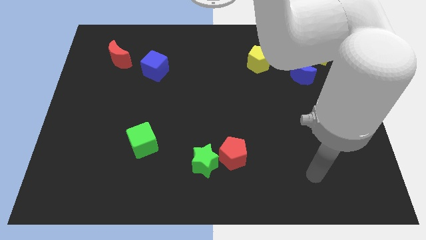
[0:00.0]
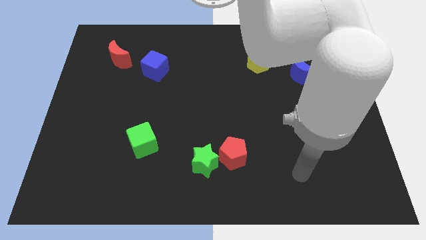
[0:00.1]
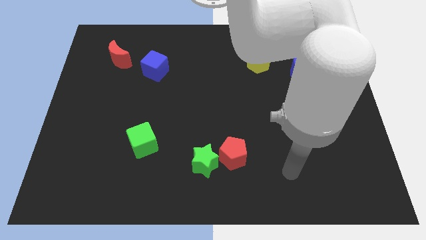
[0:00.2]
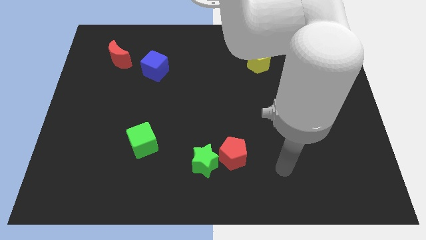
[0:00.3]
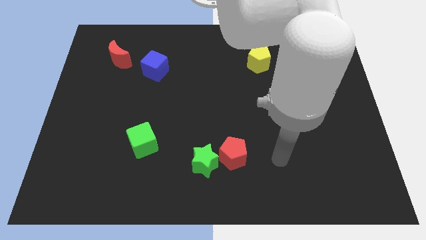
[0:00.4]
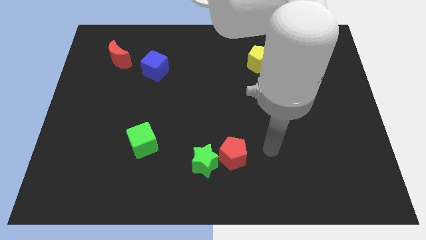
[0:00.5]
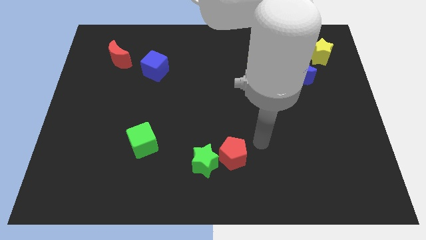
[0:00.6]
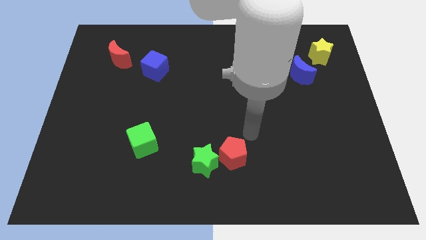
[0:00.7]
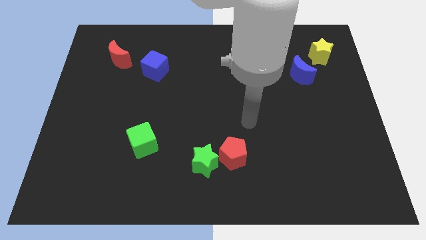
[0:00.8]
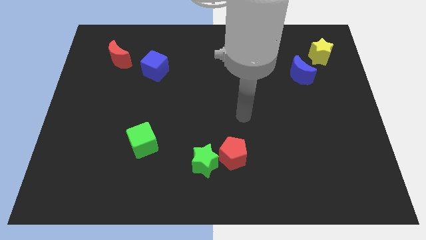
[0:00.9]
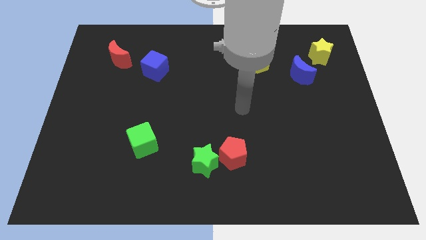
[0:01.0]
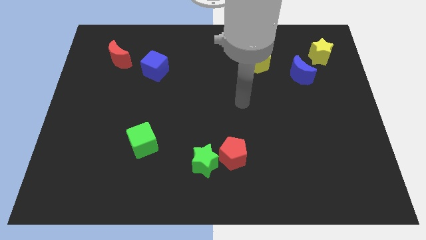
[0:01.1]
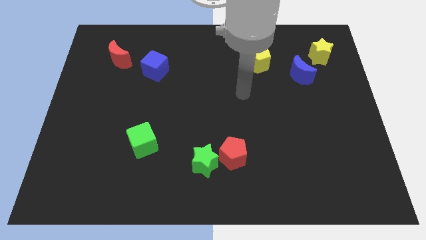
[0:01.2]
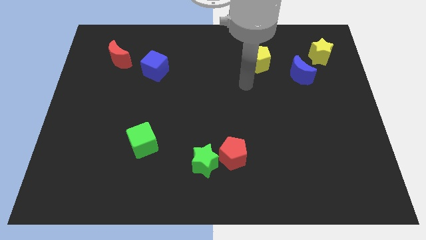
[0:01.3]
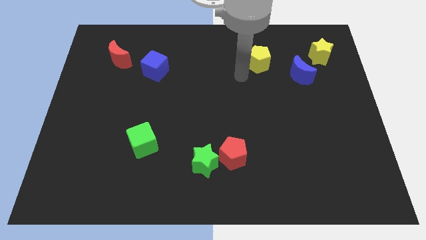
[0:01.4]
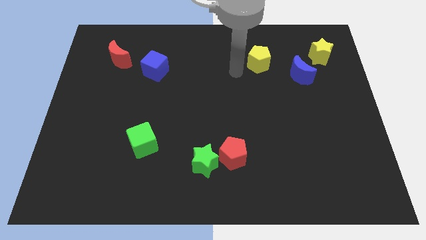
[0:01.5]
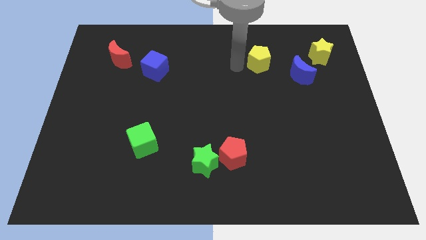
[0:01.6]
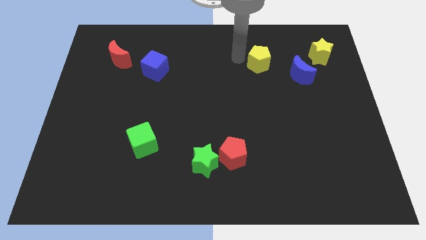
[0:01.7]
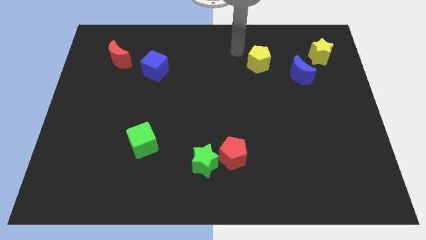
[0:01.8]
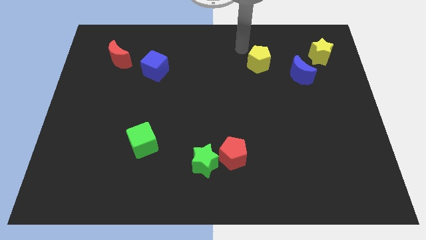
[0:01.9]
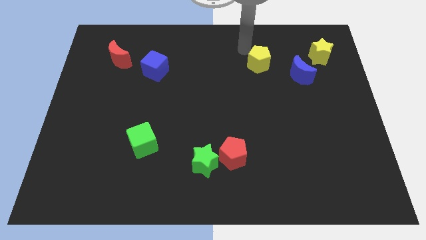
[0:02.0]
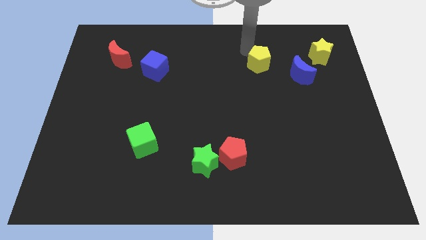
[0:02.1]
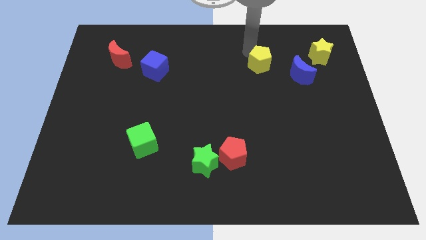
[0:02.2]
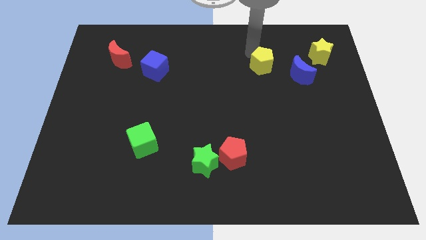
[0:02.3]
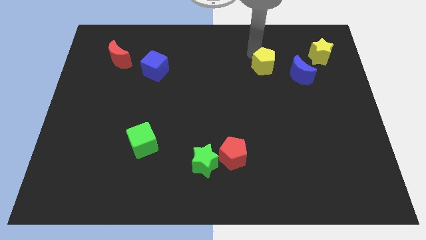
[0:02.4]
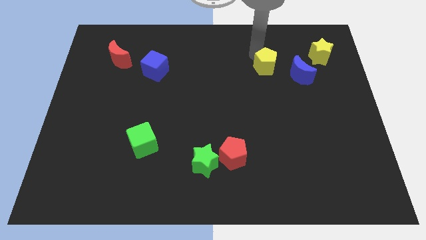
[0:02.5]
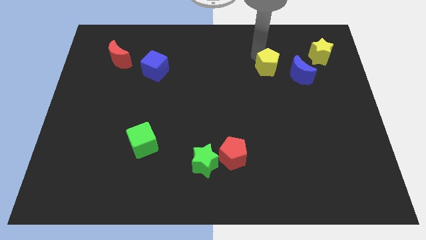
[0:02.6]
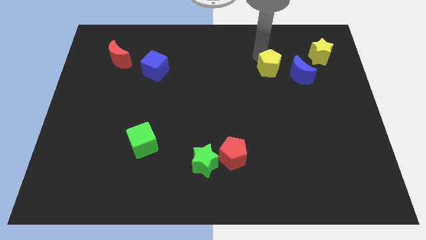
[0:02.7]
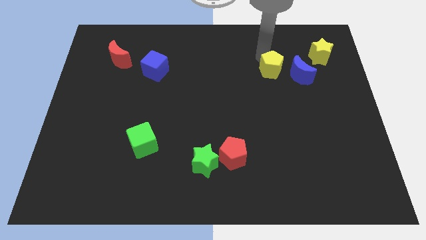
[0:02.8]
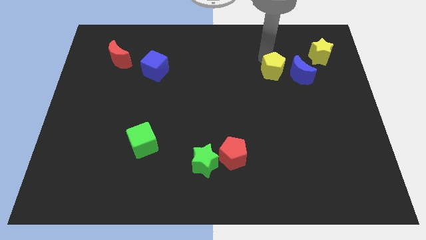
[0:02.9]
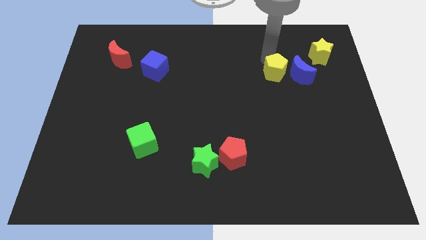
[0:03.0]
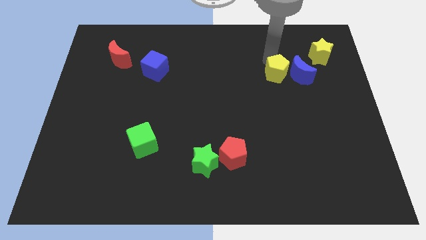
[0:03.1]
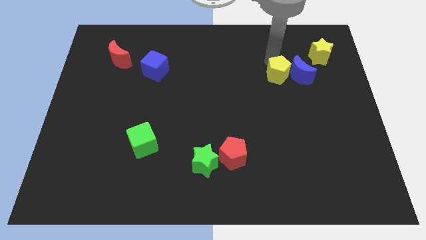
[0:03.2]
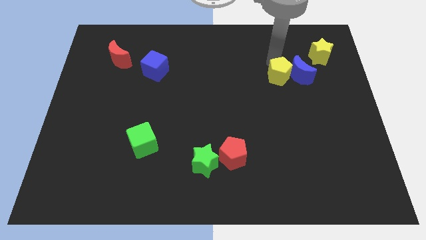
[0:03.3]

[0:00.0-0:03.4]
push the yellow pentagon a little down and then right

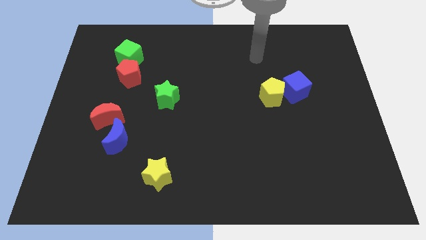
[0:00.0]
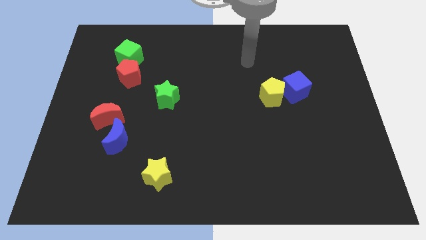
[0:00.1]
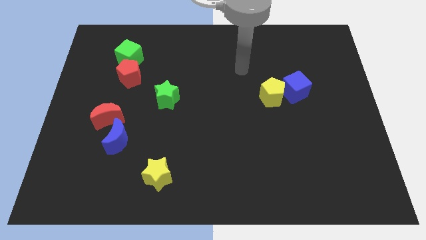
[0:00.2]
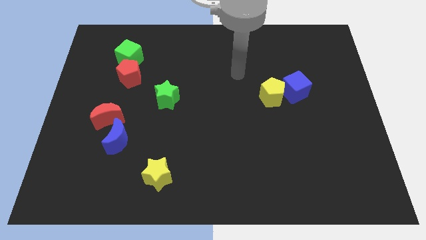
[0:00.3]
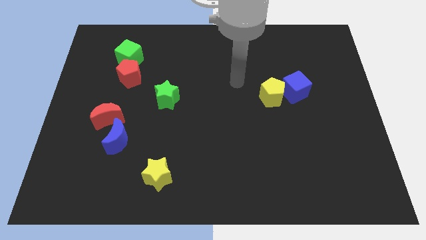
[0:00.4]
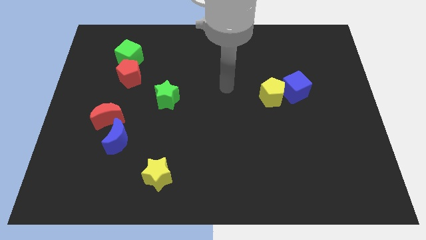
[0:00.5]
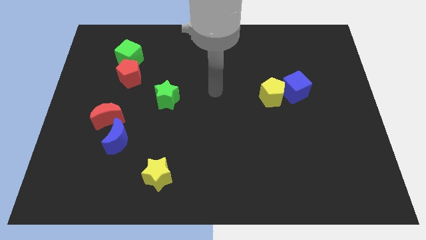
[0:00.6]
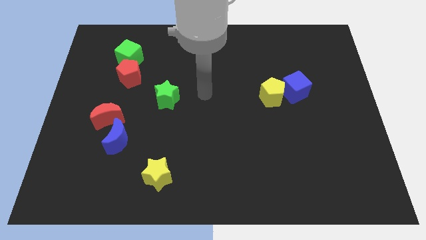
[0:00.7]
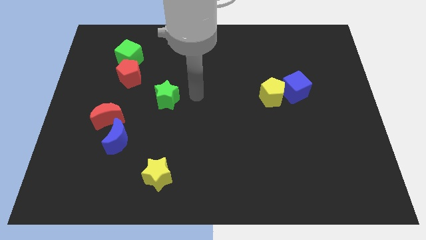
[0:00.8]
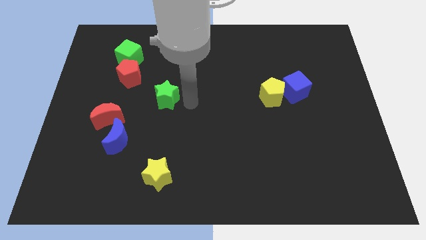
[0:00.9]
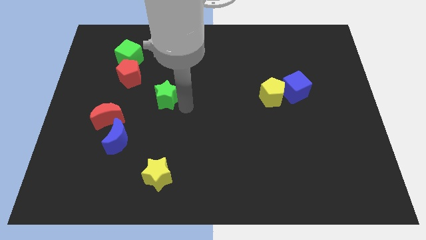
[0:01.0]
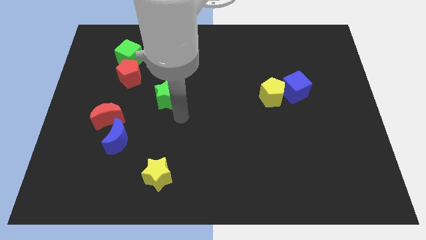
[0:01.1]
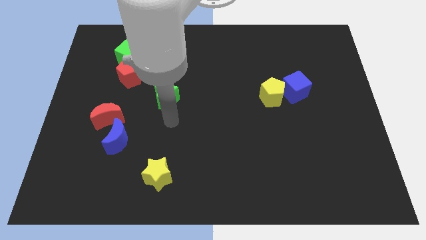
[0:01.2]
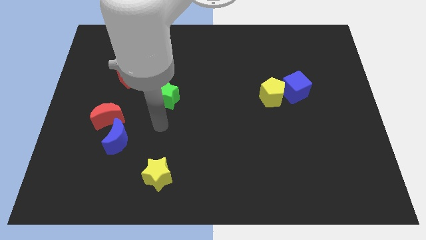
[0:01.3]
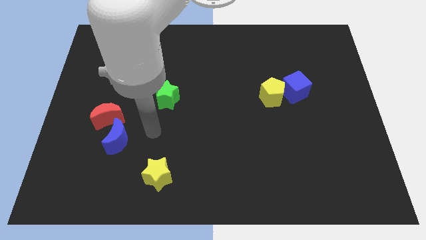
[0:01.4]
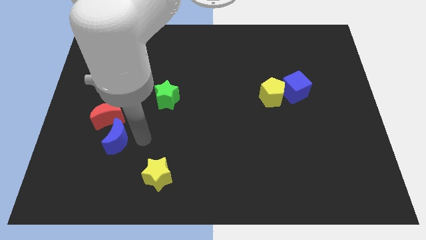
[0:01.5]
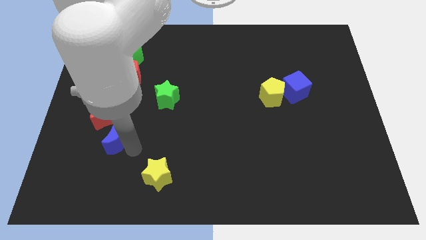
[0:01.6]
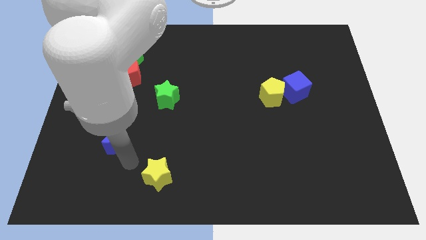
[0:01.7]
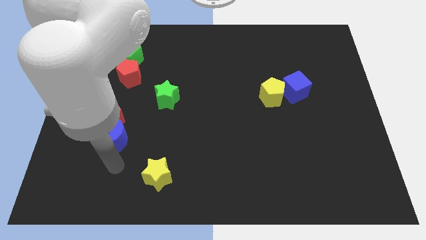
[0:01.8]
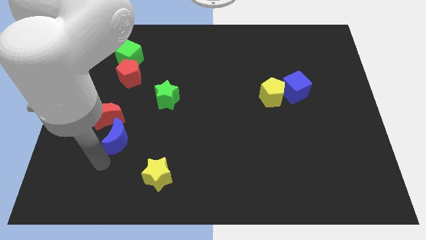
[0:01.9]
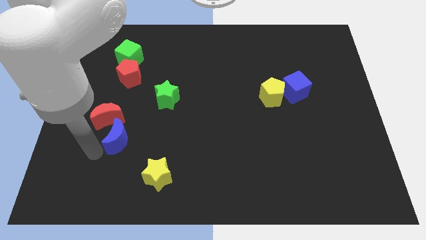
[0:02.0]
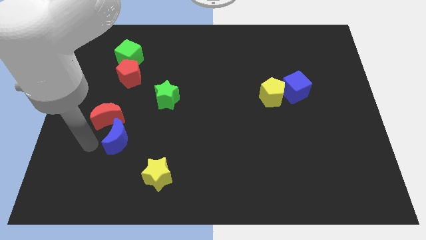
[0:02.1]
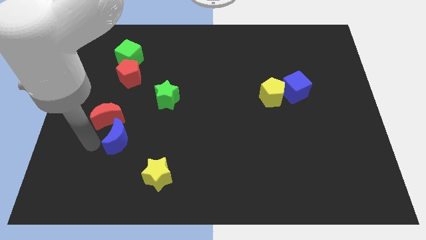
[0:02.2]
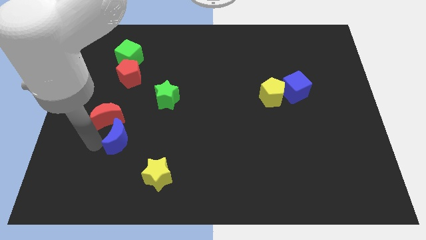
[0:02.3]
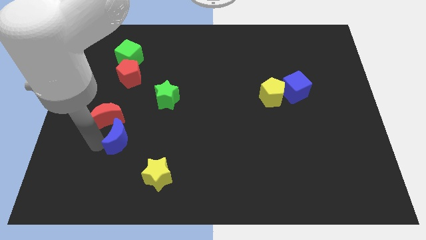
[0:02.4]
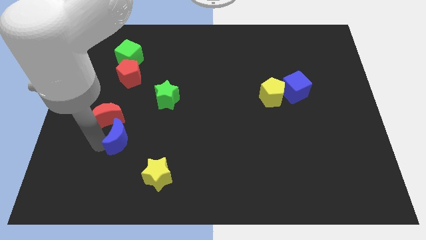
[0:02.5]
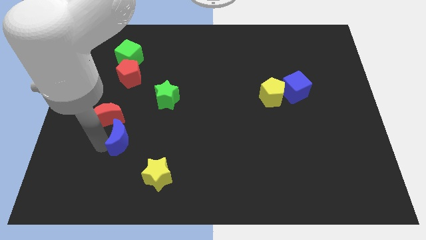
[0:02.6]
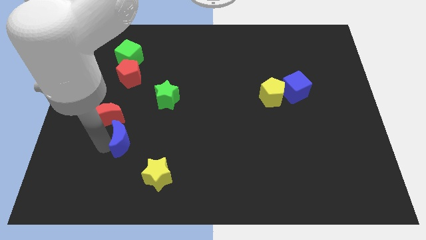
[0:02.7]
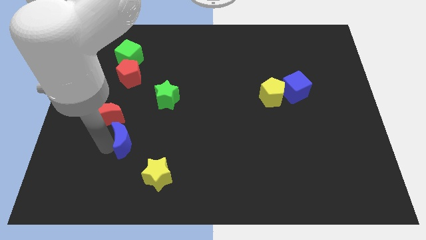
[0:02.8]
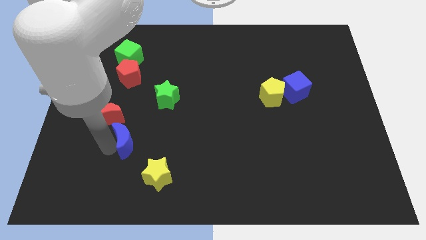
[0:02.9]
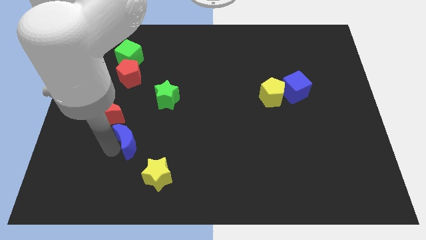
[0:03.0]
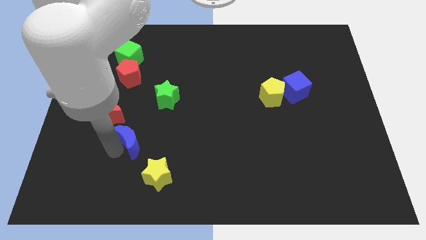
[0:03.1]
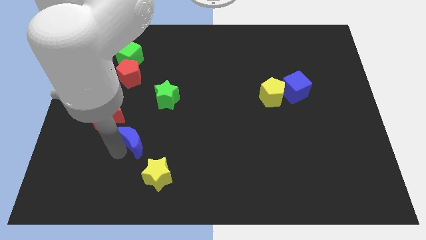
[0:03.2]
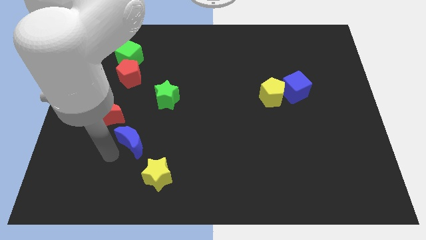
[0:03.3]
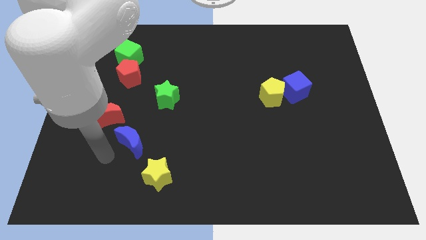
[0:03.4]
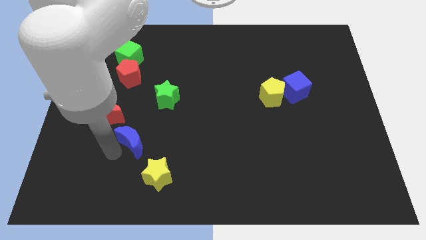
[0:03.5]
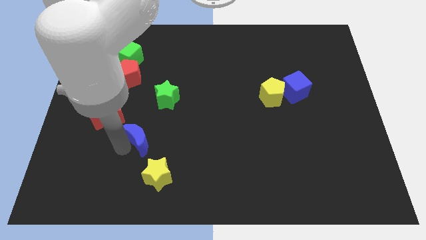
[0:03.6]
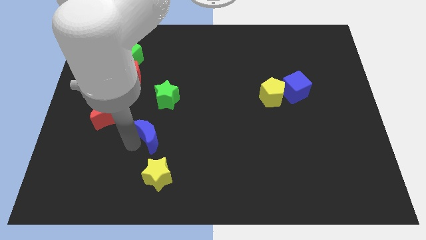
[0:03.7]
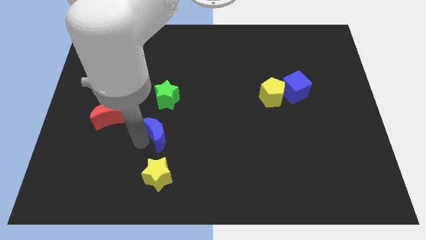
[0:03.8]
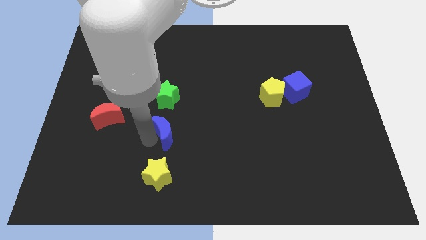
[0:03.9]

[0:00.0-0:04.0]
slide the blue moon slightly upwards and right diagonally

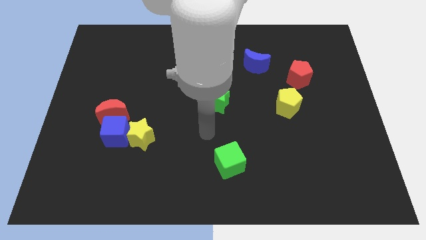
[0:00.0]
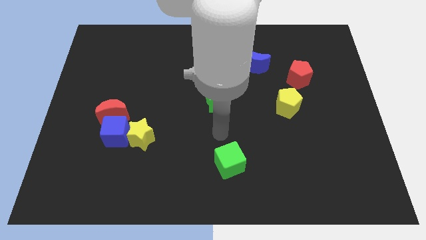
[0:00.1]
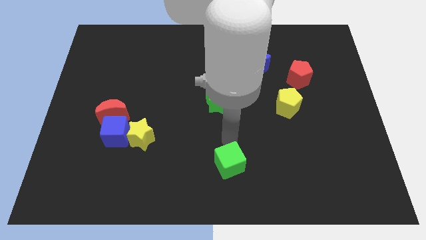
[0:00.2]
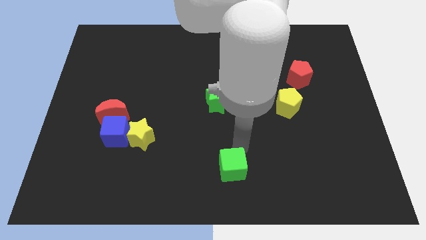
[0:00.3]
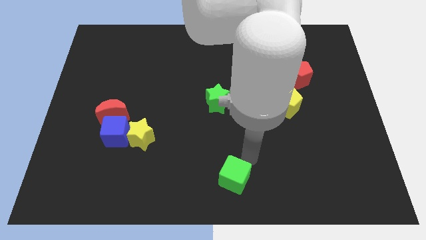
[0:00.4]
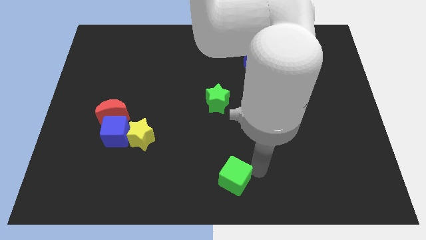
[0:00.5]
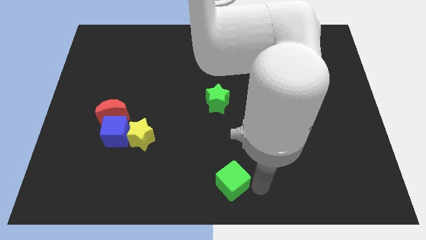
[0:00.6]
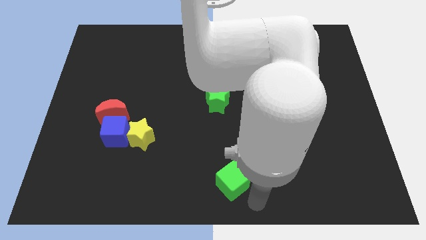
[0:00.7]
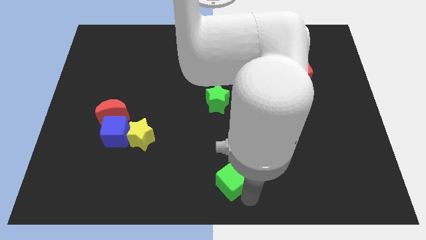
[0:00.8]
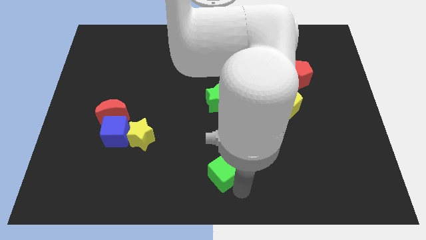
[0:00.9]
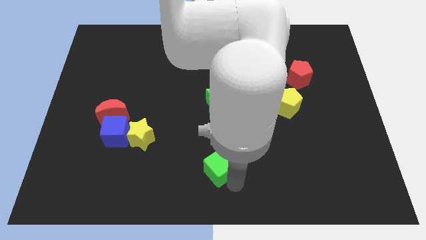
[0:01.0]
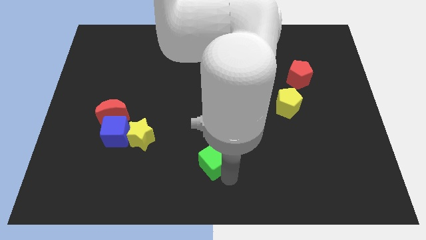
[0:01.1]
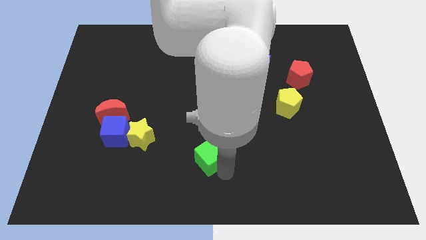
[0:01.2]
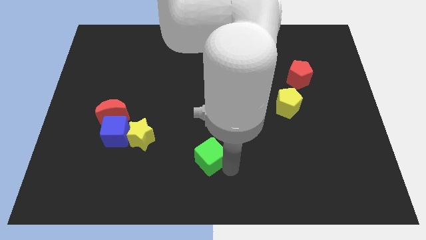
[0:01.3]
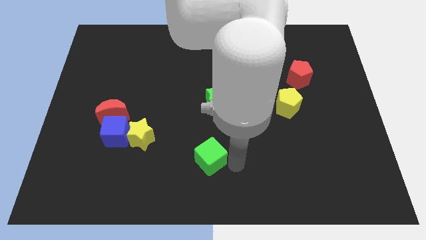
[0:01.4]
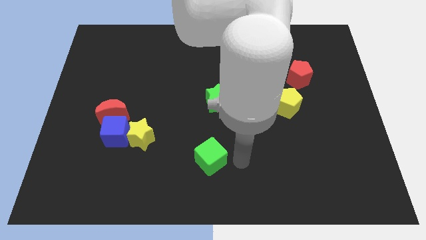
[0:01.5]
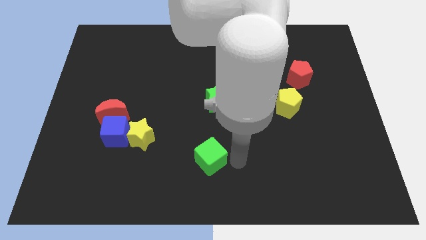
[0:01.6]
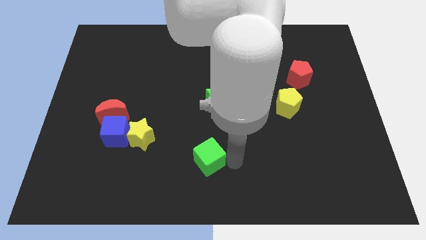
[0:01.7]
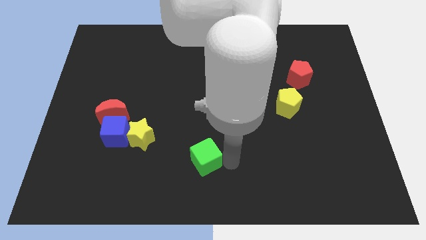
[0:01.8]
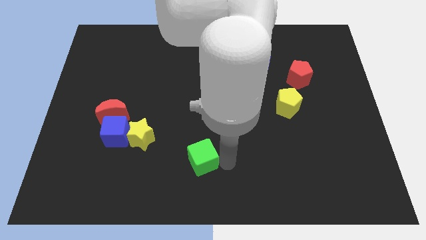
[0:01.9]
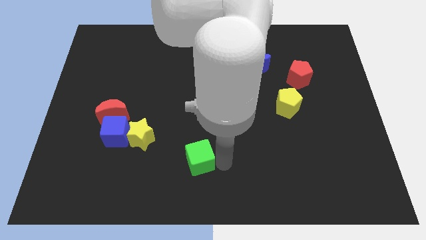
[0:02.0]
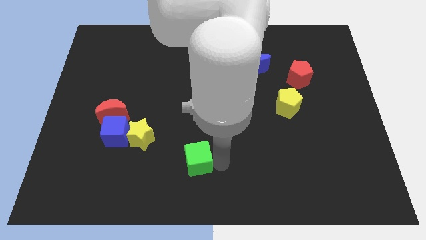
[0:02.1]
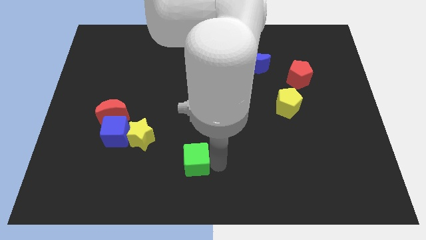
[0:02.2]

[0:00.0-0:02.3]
move the green cube left a little bit
